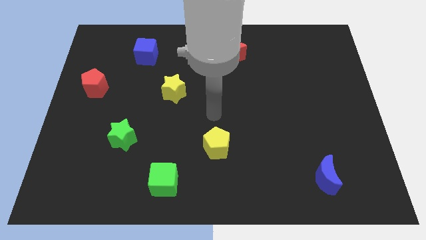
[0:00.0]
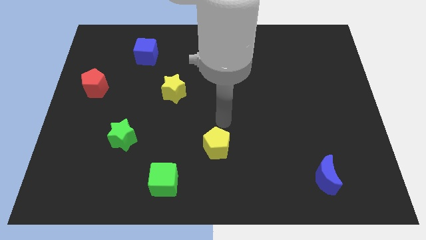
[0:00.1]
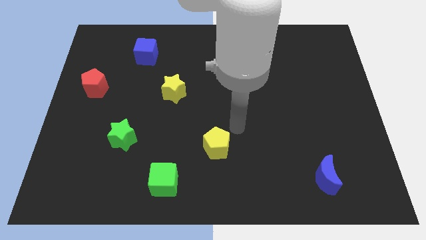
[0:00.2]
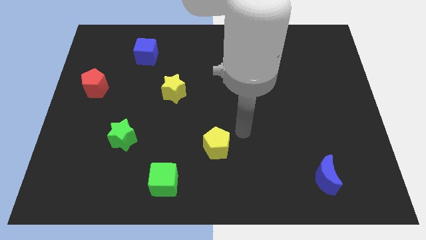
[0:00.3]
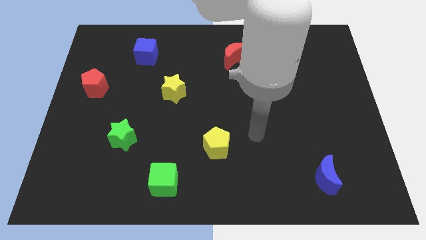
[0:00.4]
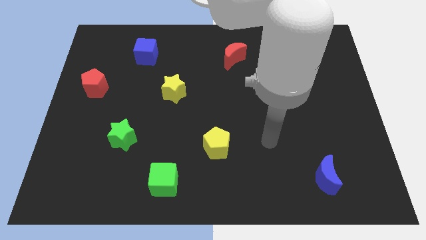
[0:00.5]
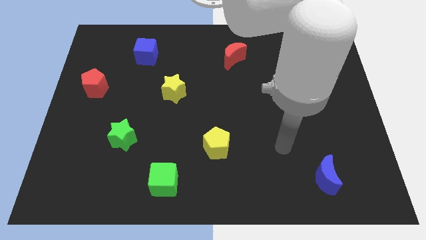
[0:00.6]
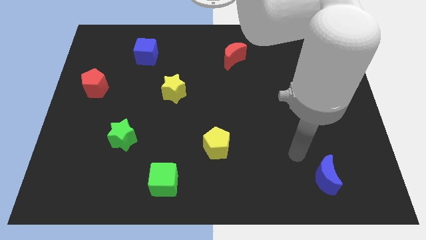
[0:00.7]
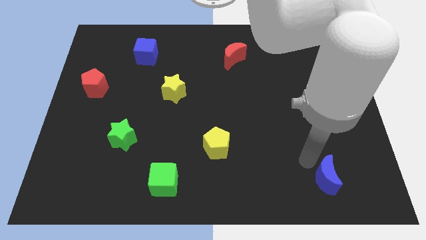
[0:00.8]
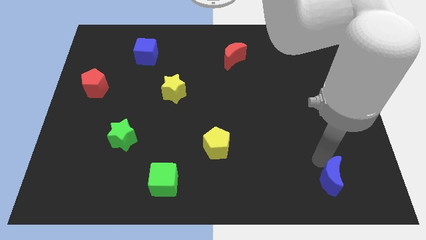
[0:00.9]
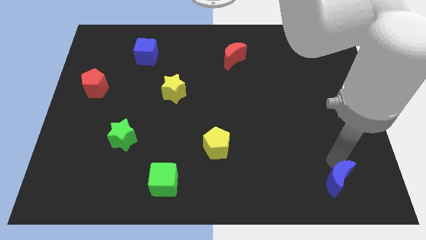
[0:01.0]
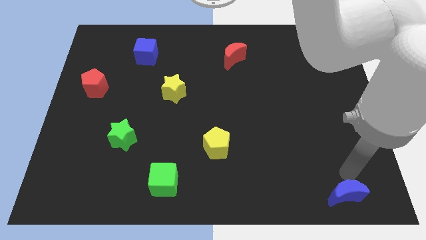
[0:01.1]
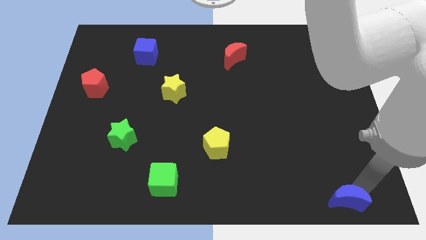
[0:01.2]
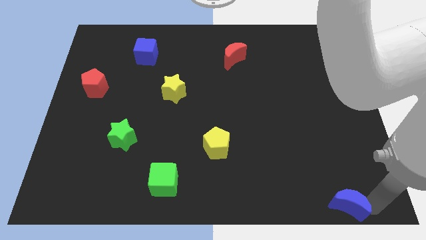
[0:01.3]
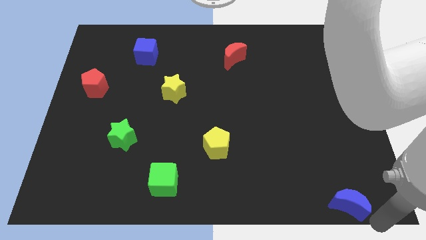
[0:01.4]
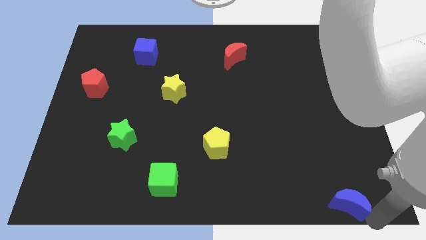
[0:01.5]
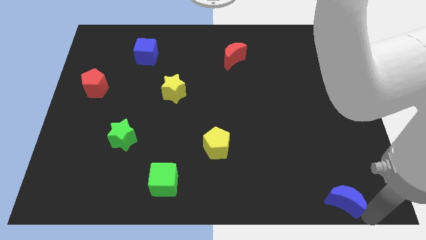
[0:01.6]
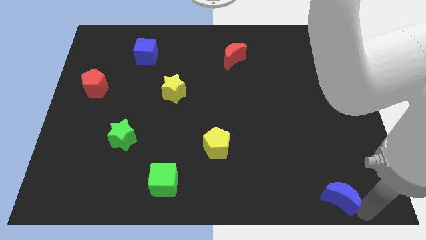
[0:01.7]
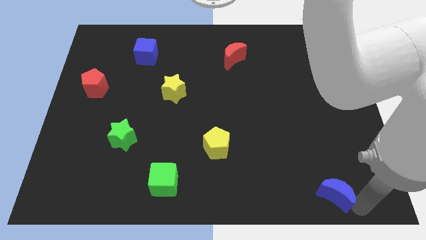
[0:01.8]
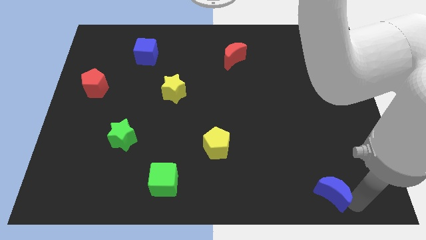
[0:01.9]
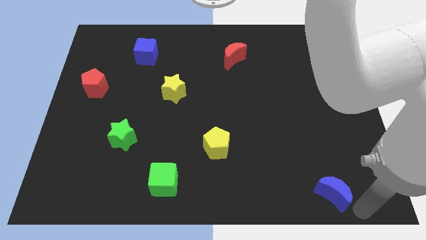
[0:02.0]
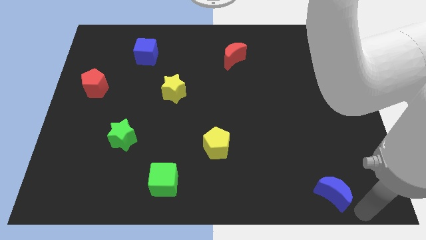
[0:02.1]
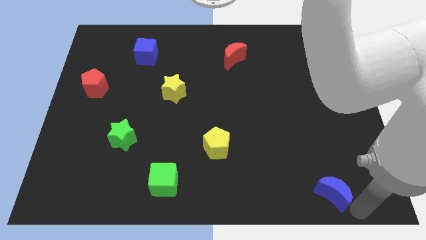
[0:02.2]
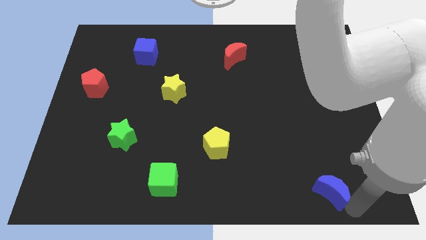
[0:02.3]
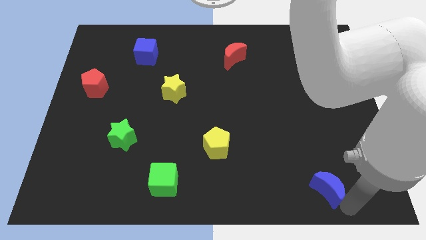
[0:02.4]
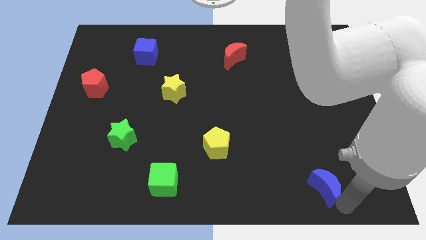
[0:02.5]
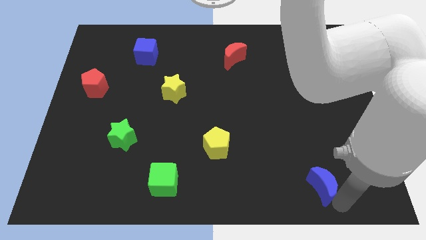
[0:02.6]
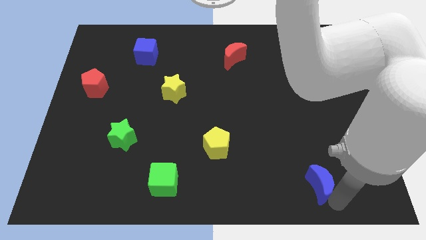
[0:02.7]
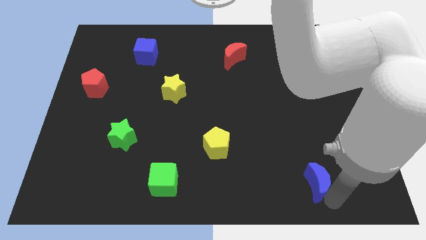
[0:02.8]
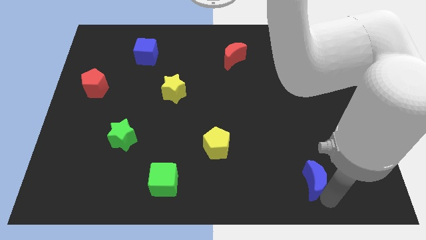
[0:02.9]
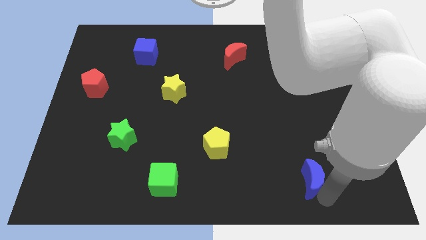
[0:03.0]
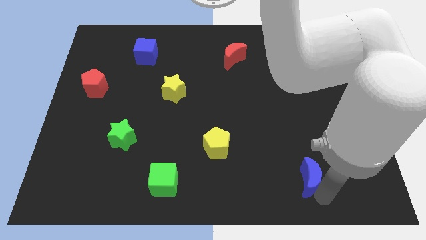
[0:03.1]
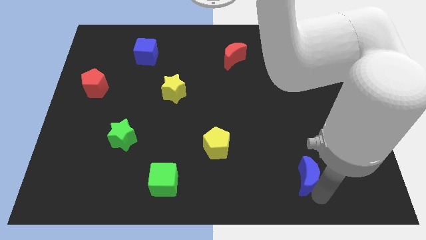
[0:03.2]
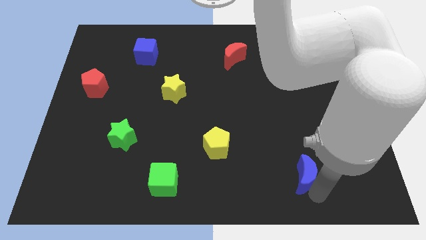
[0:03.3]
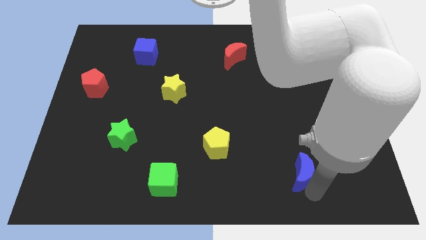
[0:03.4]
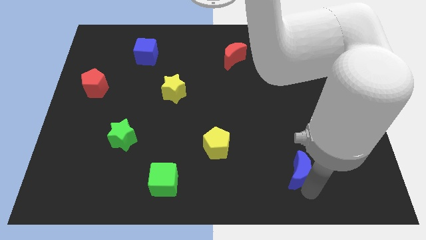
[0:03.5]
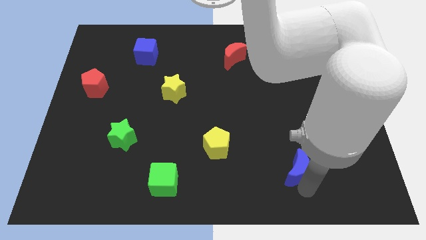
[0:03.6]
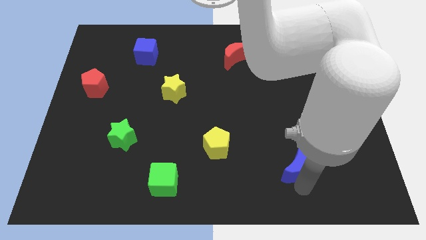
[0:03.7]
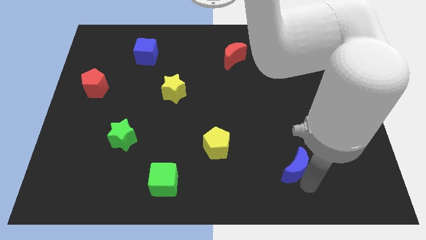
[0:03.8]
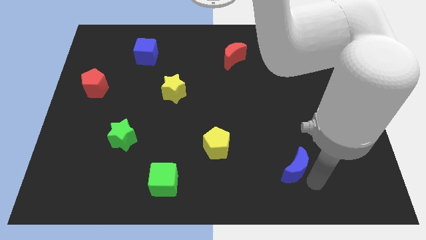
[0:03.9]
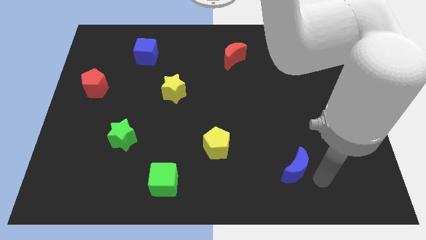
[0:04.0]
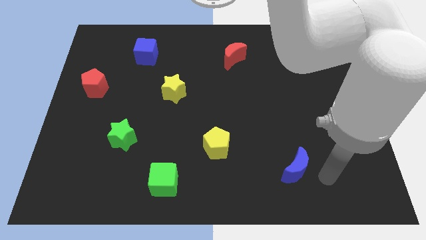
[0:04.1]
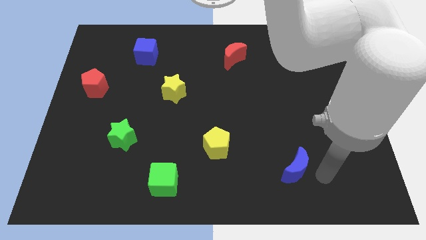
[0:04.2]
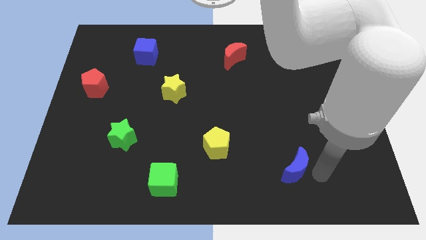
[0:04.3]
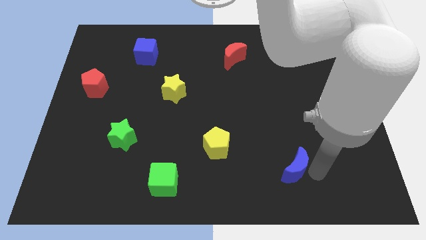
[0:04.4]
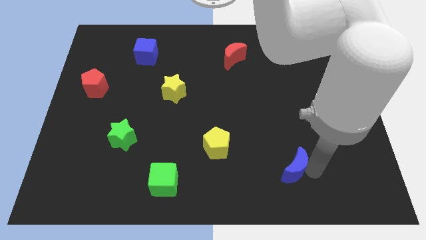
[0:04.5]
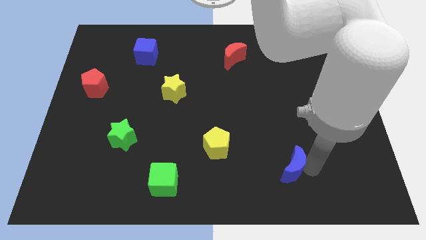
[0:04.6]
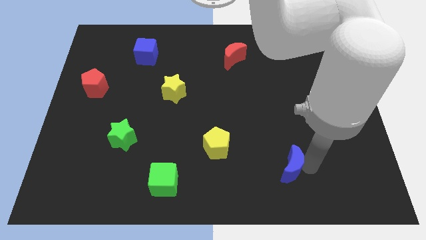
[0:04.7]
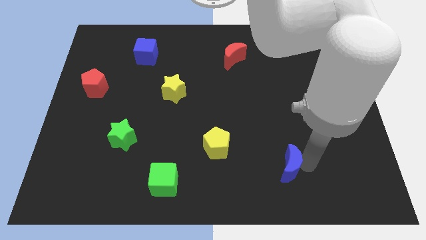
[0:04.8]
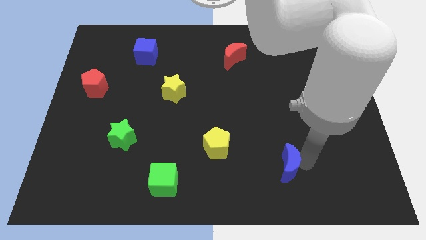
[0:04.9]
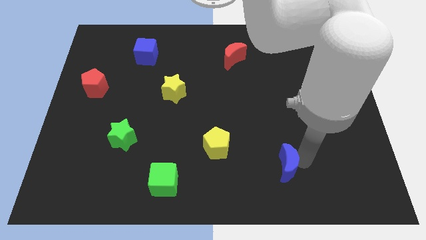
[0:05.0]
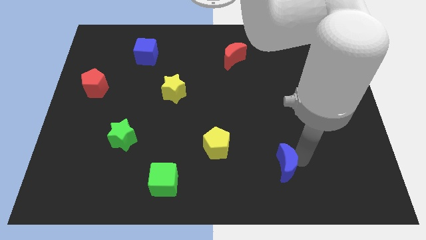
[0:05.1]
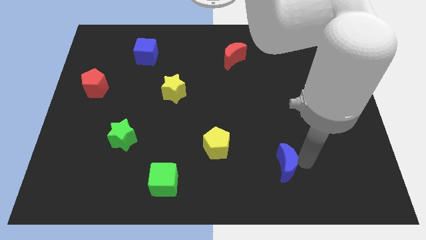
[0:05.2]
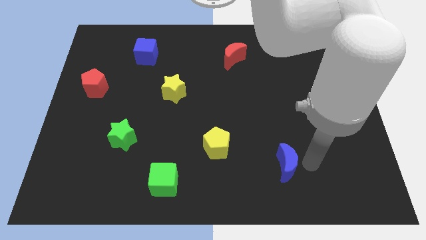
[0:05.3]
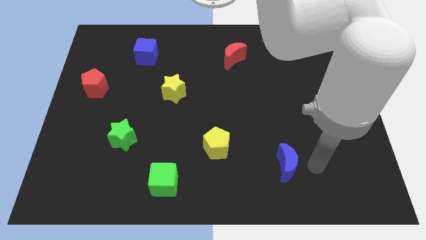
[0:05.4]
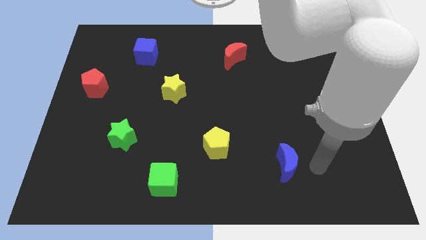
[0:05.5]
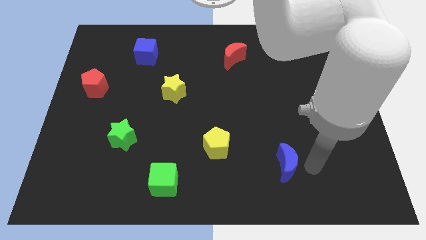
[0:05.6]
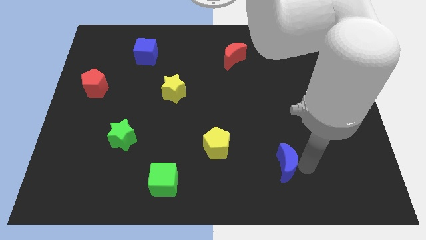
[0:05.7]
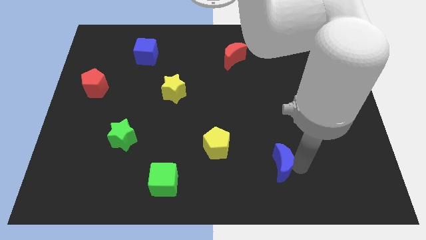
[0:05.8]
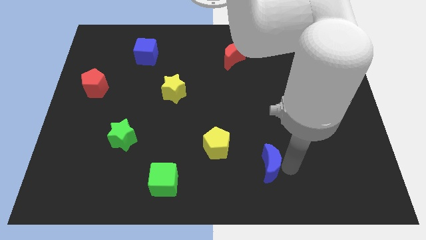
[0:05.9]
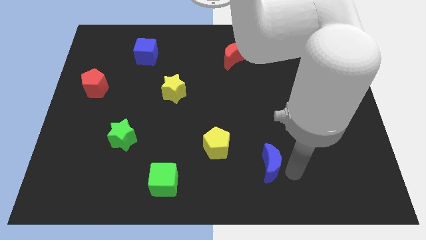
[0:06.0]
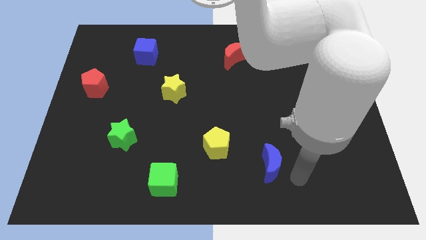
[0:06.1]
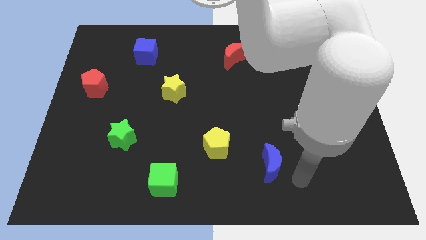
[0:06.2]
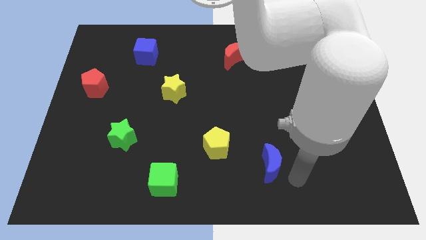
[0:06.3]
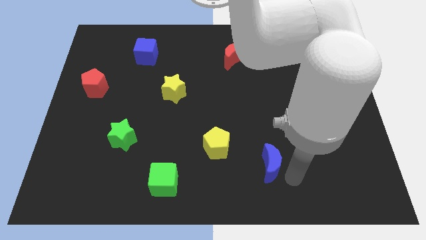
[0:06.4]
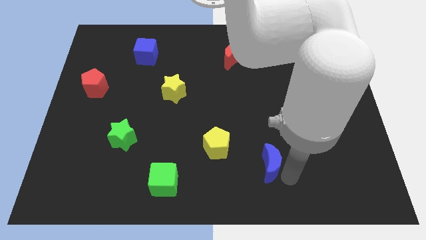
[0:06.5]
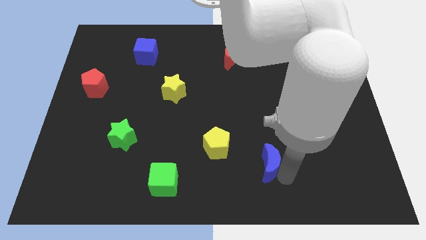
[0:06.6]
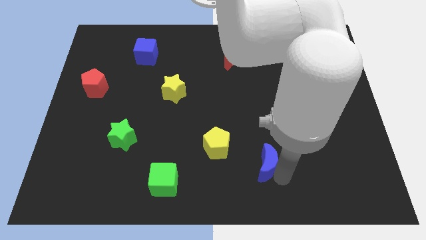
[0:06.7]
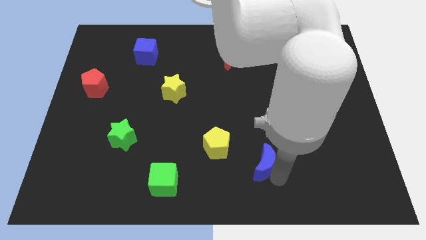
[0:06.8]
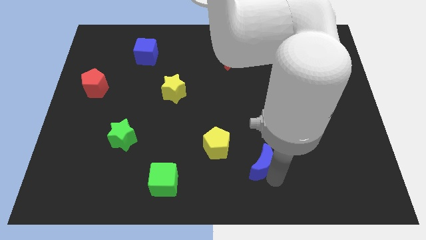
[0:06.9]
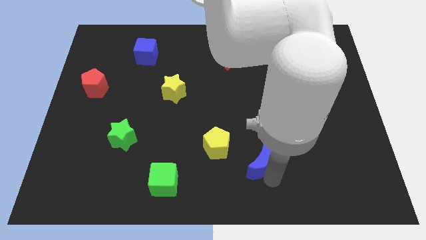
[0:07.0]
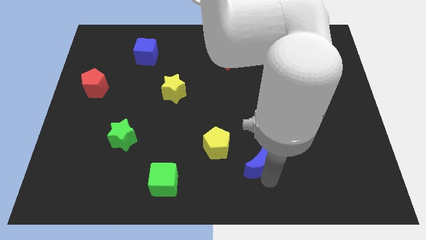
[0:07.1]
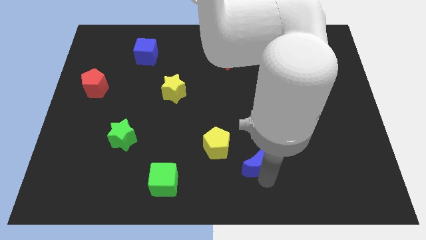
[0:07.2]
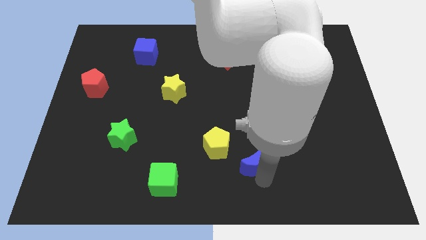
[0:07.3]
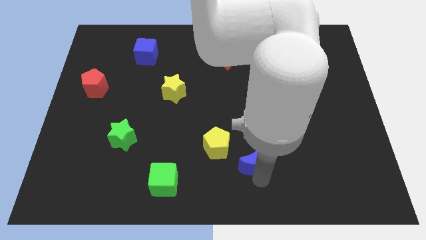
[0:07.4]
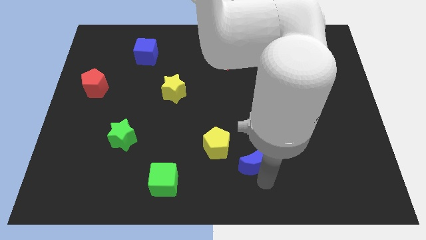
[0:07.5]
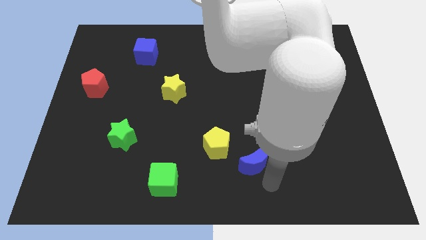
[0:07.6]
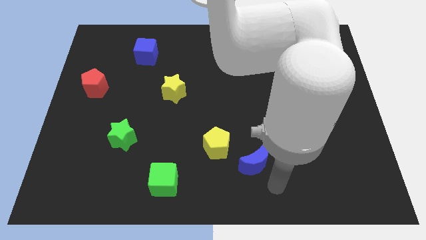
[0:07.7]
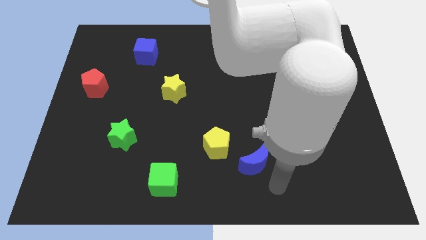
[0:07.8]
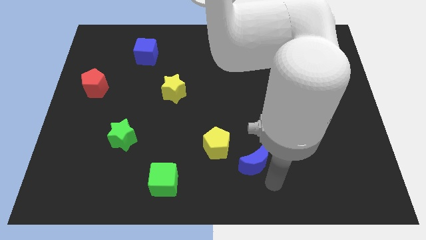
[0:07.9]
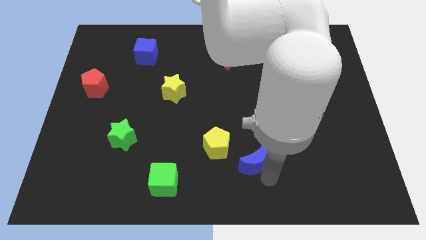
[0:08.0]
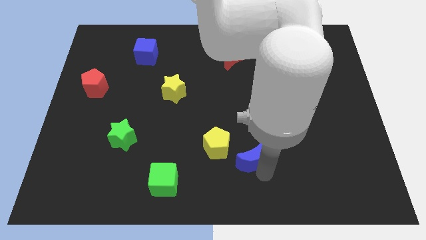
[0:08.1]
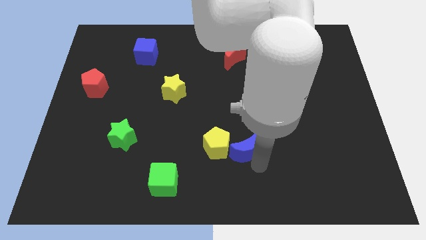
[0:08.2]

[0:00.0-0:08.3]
slide the blue moon to the yellow pentagon
